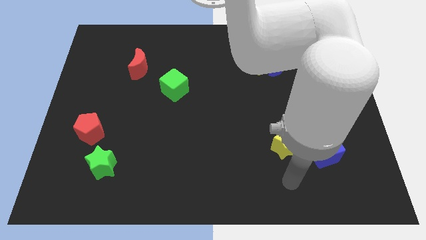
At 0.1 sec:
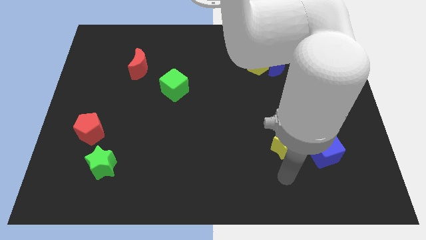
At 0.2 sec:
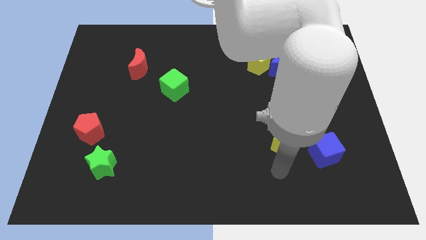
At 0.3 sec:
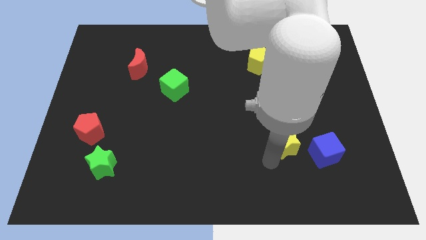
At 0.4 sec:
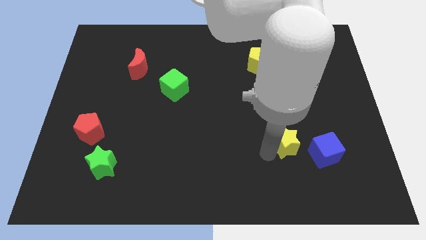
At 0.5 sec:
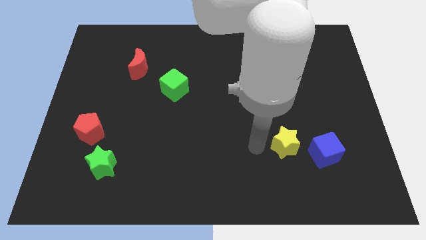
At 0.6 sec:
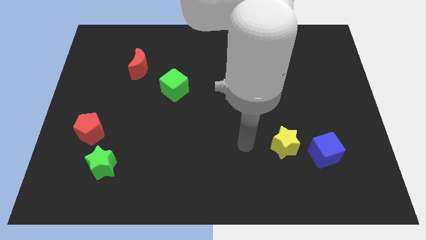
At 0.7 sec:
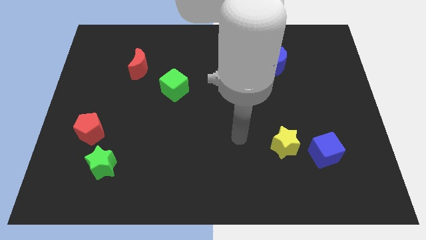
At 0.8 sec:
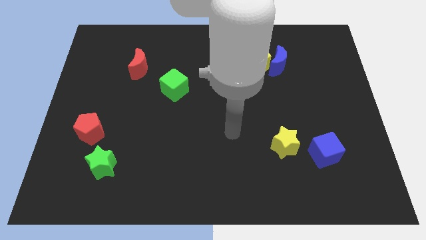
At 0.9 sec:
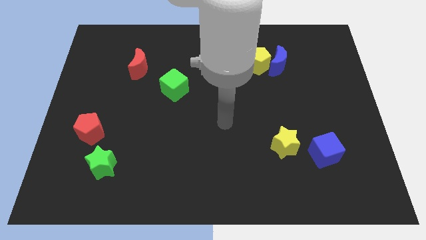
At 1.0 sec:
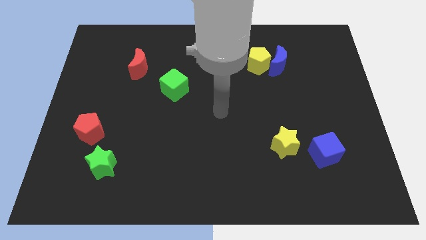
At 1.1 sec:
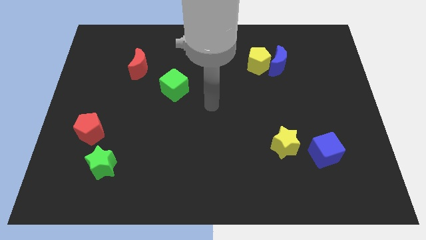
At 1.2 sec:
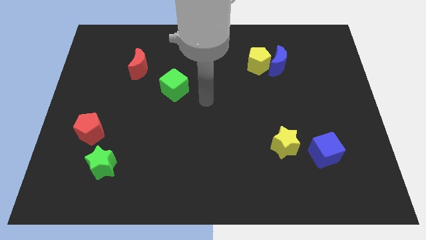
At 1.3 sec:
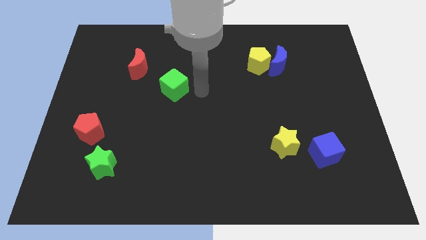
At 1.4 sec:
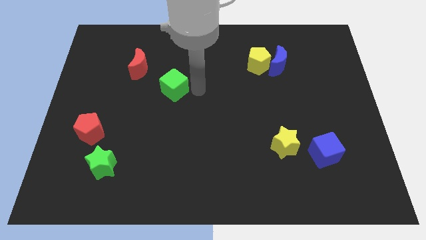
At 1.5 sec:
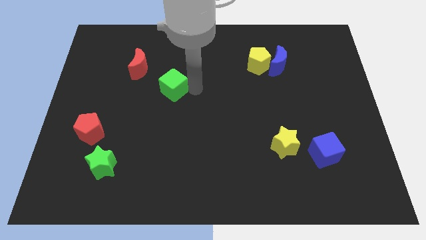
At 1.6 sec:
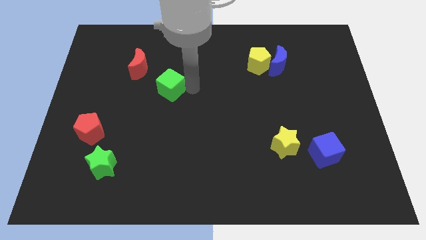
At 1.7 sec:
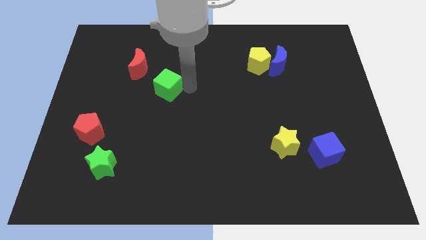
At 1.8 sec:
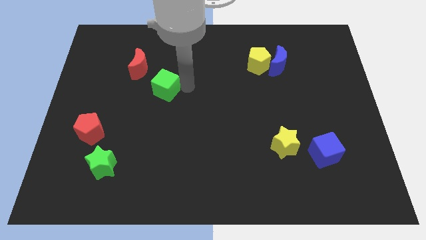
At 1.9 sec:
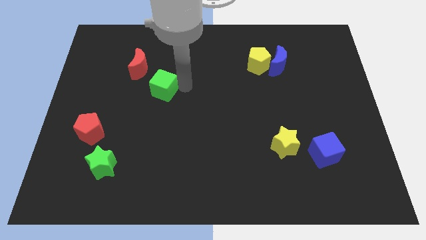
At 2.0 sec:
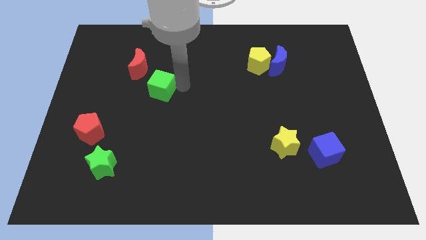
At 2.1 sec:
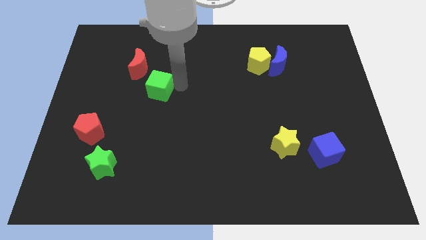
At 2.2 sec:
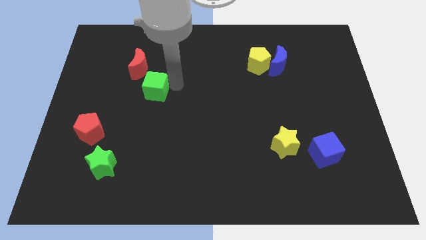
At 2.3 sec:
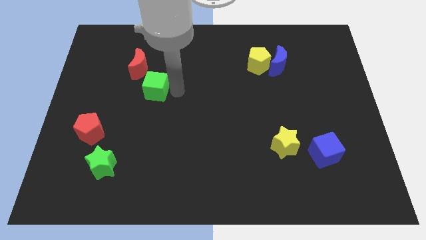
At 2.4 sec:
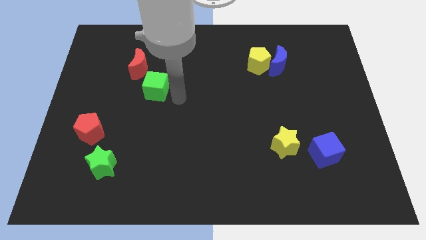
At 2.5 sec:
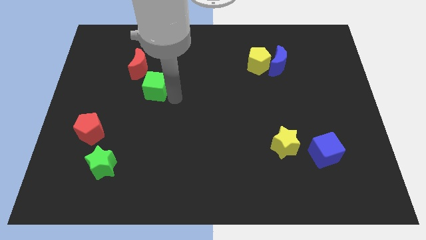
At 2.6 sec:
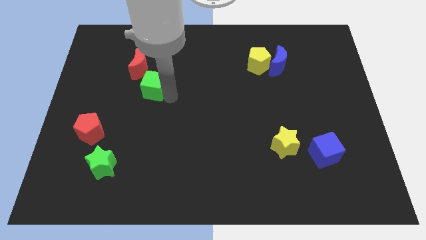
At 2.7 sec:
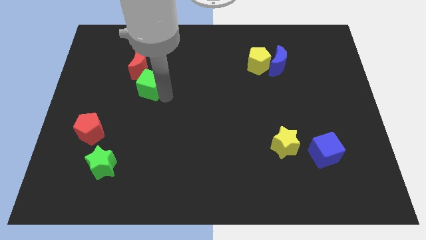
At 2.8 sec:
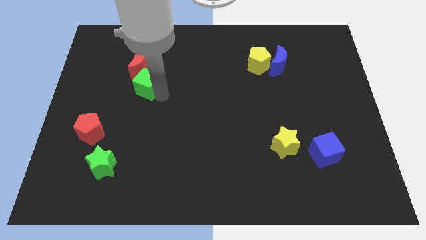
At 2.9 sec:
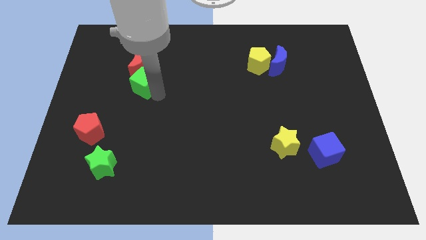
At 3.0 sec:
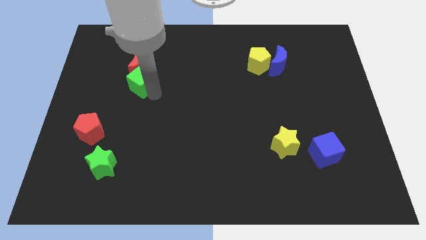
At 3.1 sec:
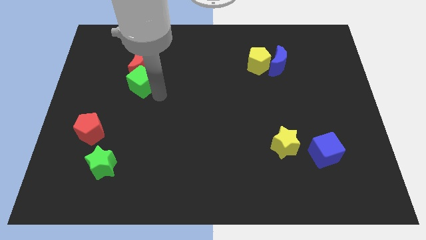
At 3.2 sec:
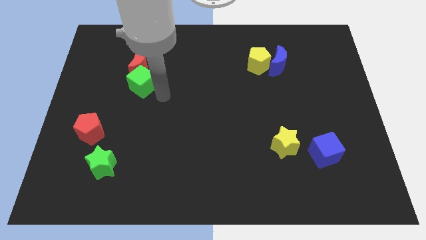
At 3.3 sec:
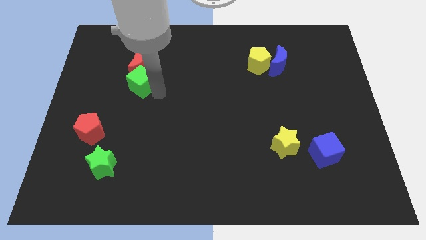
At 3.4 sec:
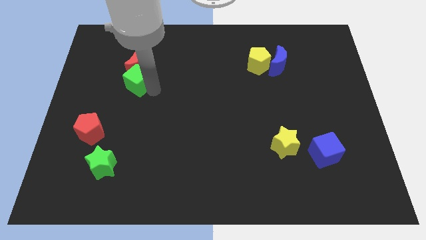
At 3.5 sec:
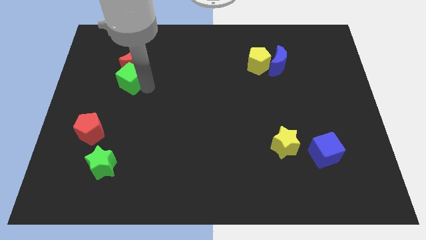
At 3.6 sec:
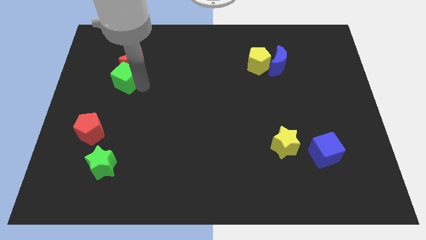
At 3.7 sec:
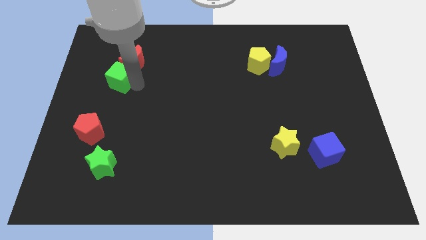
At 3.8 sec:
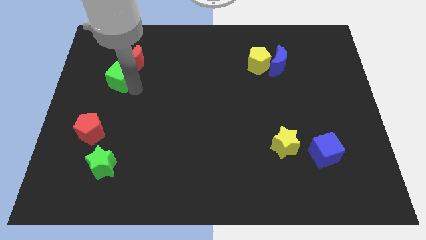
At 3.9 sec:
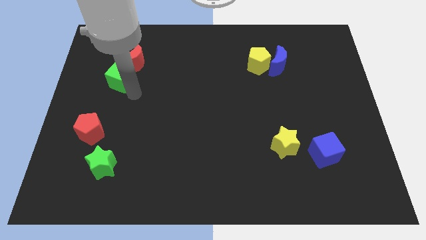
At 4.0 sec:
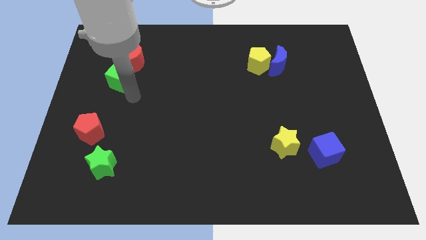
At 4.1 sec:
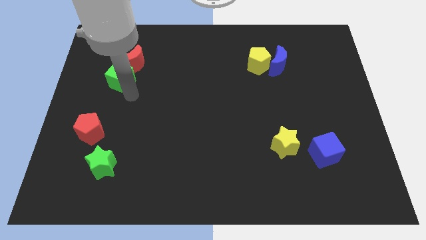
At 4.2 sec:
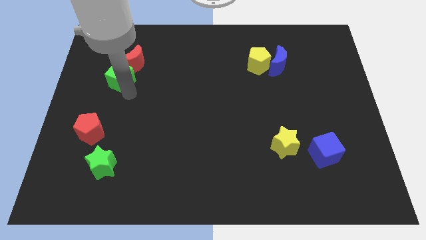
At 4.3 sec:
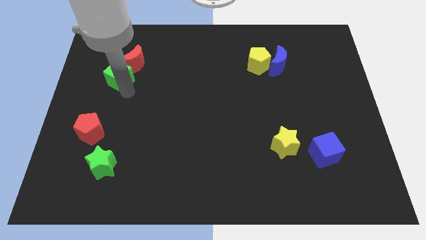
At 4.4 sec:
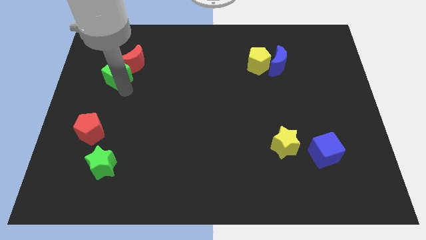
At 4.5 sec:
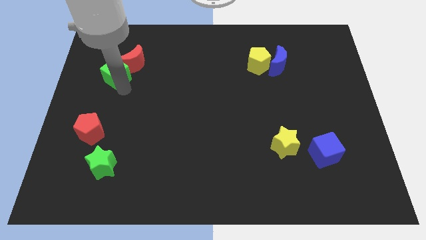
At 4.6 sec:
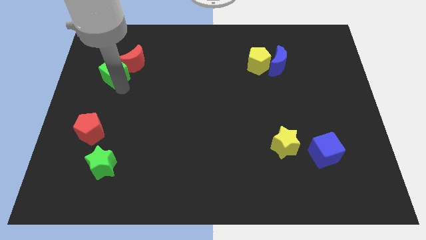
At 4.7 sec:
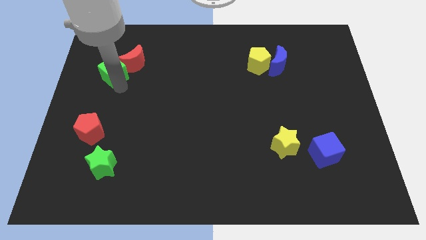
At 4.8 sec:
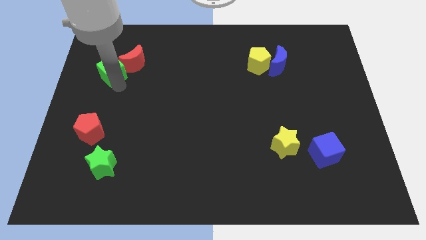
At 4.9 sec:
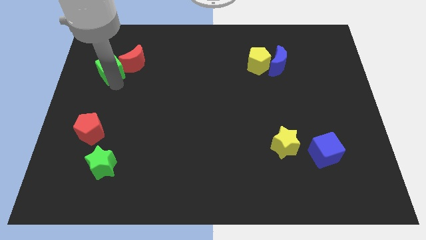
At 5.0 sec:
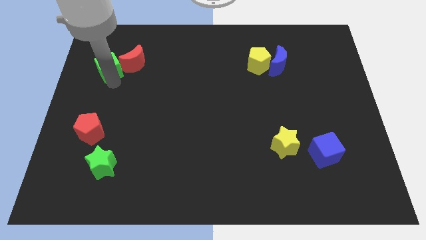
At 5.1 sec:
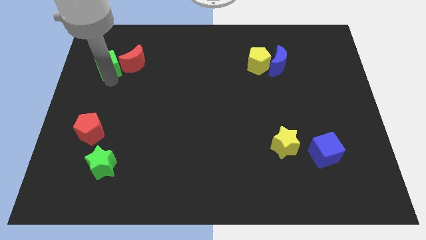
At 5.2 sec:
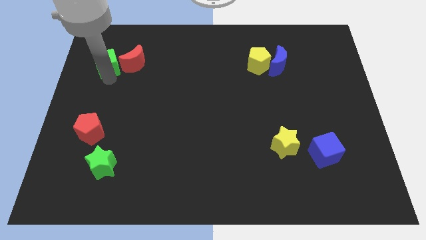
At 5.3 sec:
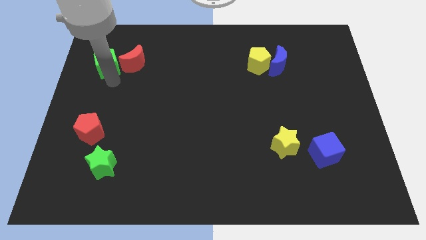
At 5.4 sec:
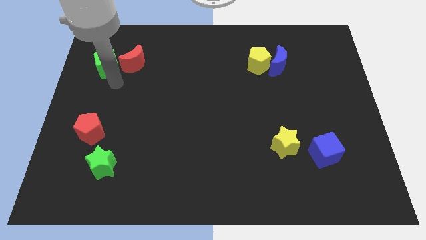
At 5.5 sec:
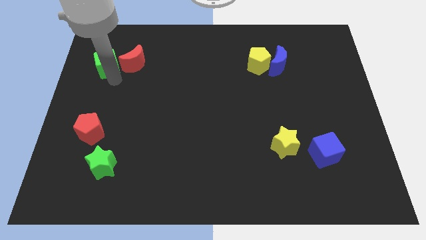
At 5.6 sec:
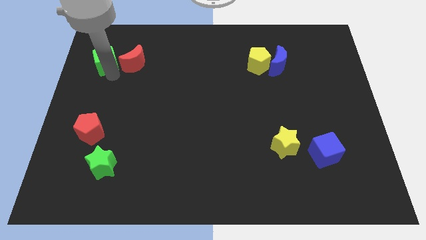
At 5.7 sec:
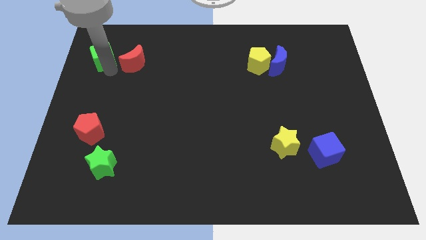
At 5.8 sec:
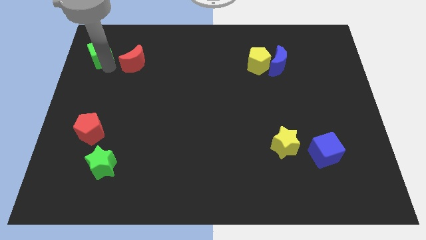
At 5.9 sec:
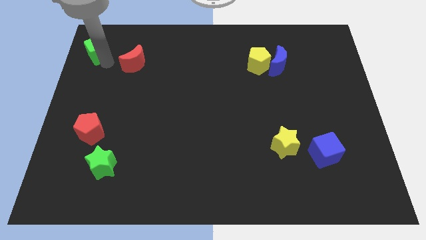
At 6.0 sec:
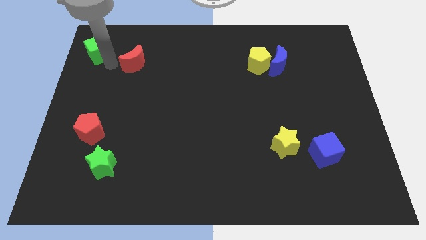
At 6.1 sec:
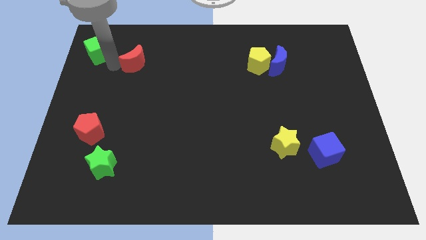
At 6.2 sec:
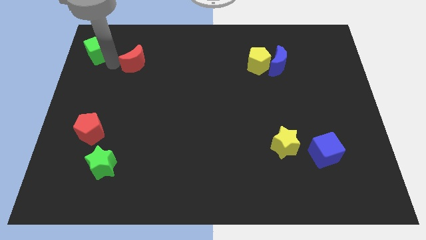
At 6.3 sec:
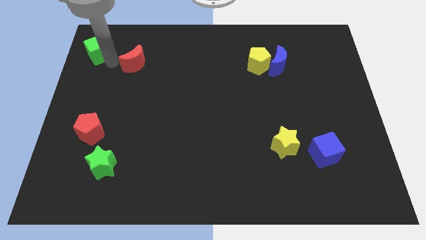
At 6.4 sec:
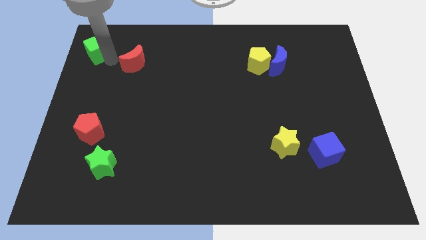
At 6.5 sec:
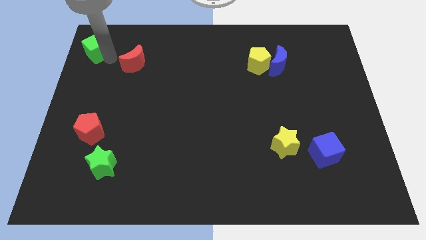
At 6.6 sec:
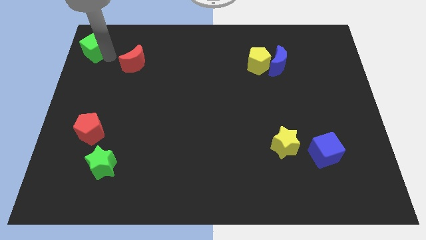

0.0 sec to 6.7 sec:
slide the green cube to the upper left corner

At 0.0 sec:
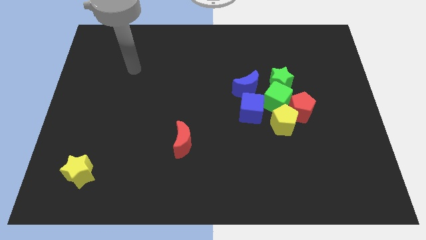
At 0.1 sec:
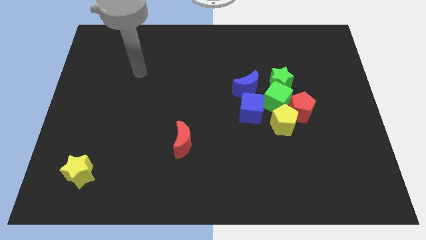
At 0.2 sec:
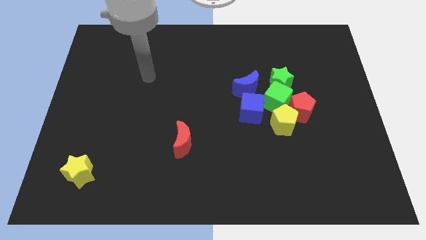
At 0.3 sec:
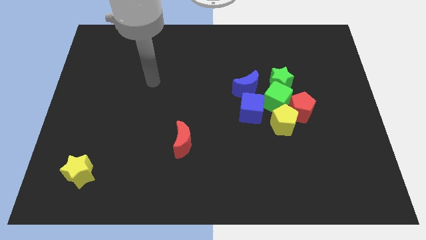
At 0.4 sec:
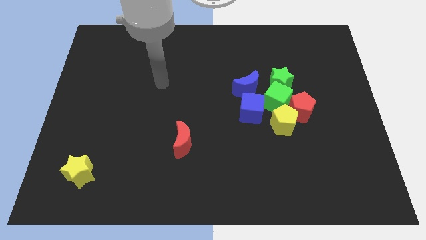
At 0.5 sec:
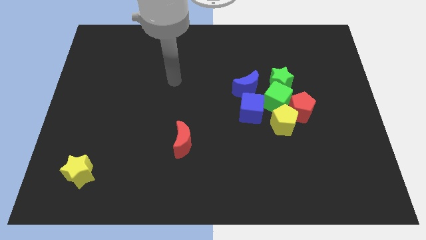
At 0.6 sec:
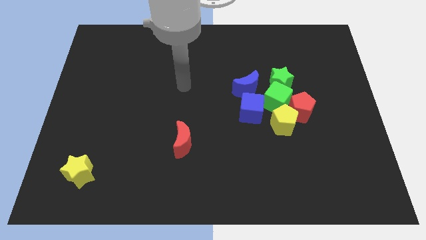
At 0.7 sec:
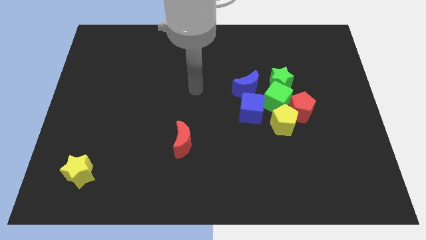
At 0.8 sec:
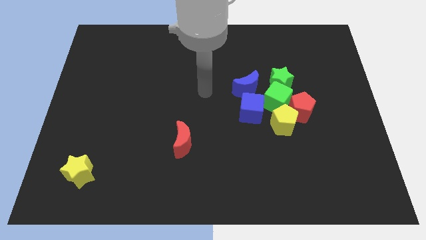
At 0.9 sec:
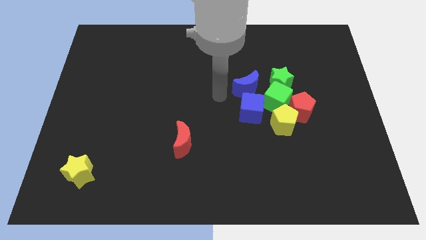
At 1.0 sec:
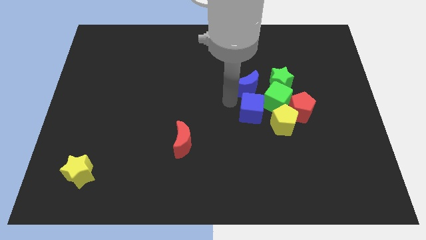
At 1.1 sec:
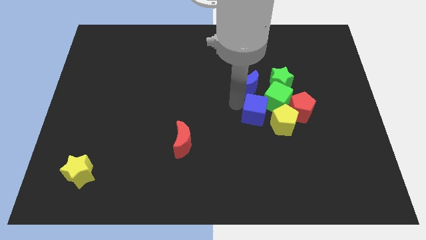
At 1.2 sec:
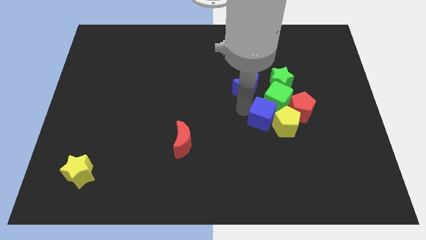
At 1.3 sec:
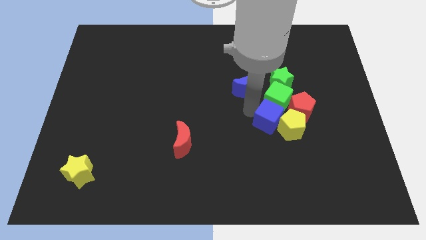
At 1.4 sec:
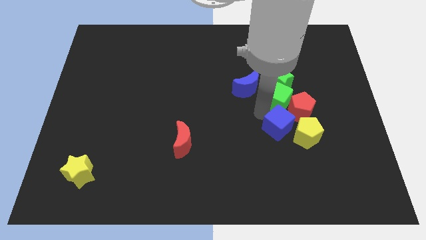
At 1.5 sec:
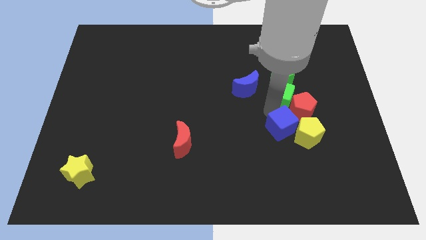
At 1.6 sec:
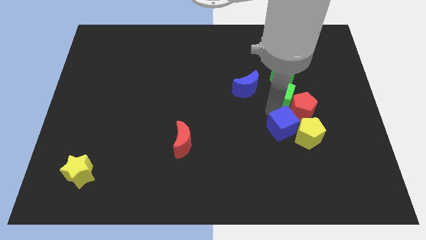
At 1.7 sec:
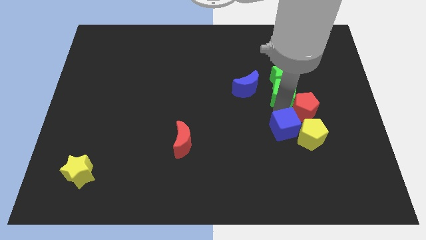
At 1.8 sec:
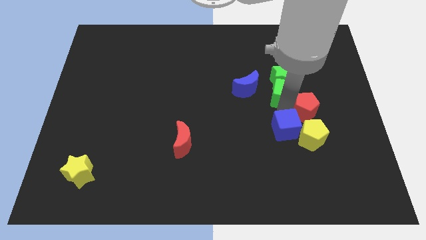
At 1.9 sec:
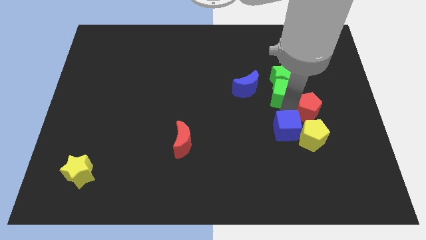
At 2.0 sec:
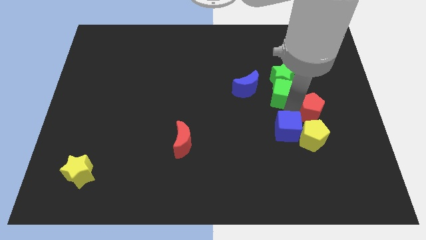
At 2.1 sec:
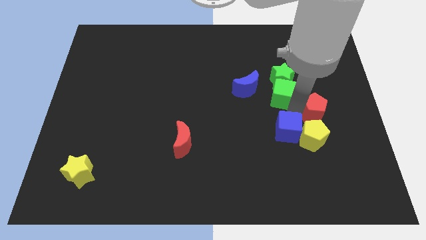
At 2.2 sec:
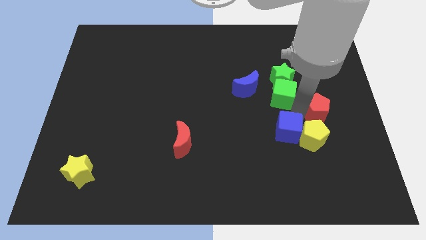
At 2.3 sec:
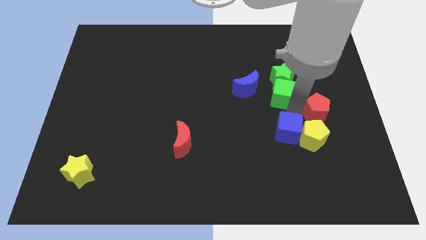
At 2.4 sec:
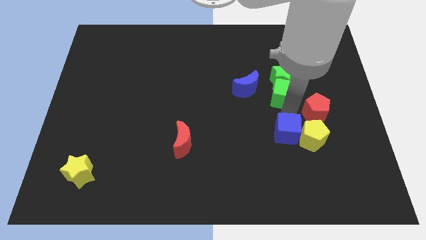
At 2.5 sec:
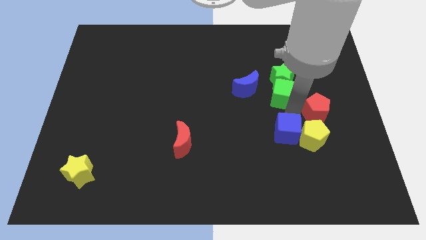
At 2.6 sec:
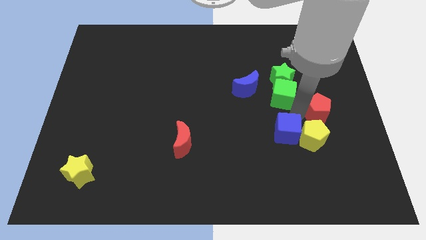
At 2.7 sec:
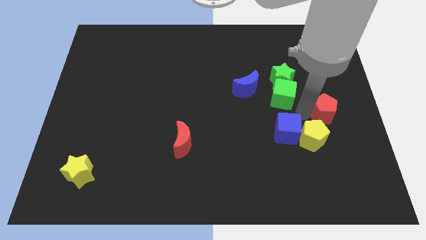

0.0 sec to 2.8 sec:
put the red pentagon to the right side
